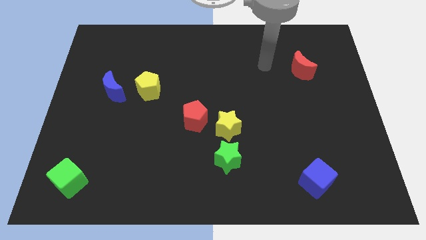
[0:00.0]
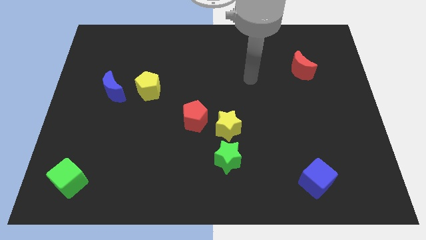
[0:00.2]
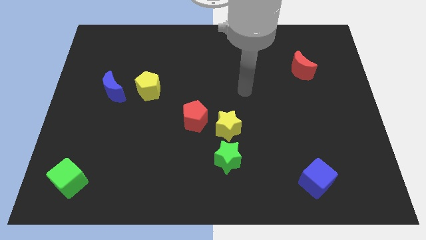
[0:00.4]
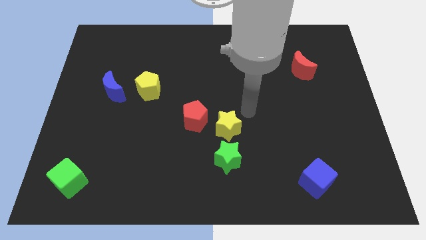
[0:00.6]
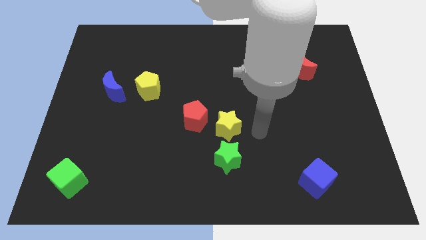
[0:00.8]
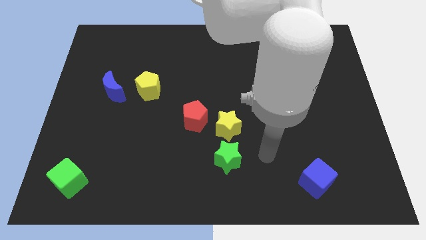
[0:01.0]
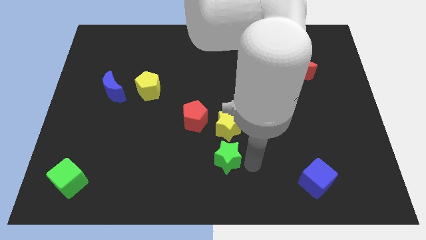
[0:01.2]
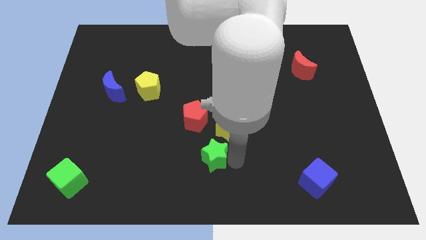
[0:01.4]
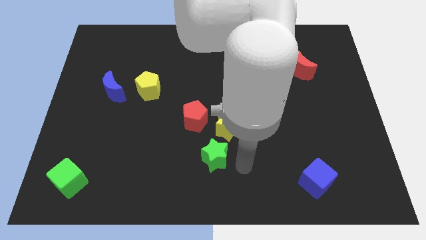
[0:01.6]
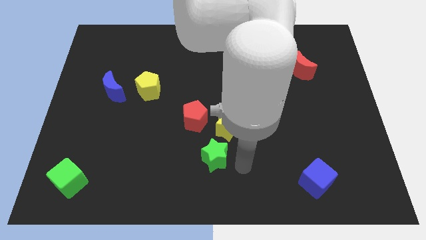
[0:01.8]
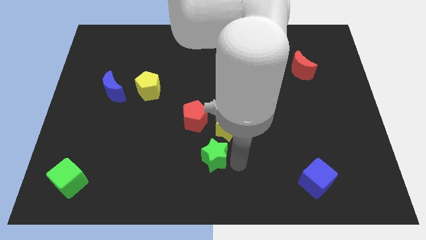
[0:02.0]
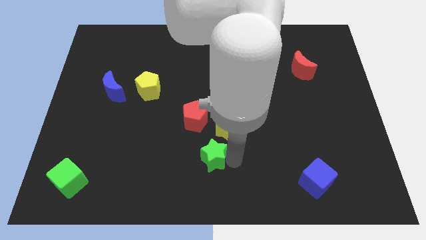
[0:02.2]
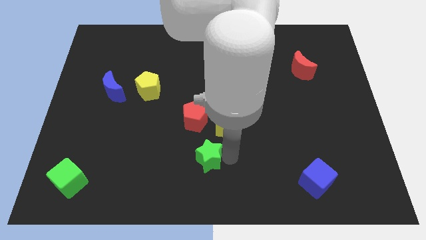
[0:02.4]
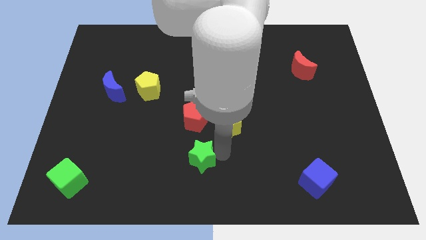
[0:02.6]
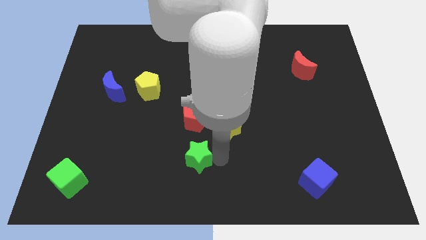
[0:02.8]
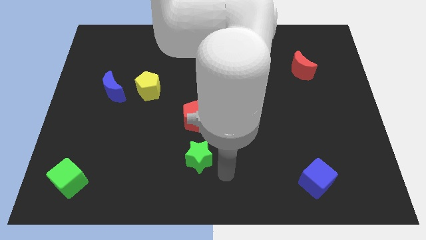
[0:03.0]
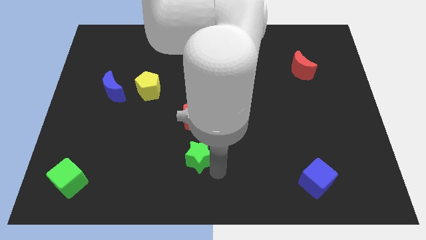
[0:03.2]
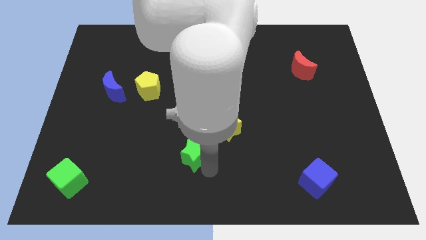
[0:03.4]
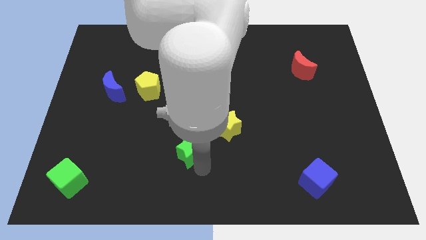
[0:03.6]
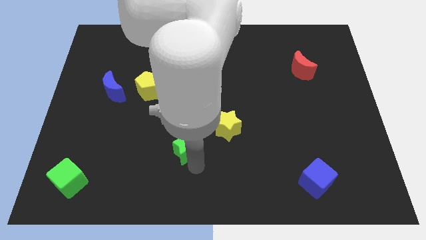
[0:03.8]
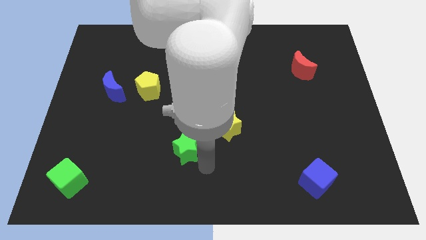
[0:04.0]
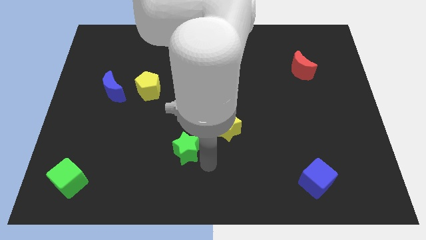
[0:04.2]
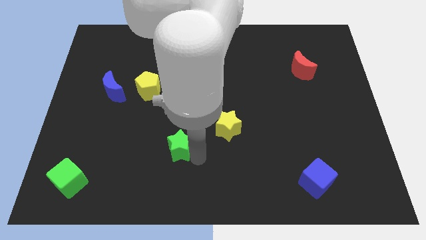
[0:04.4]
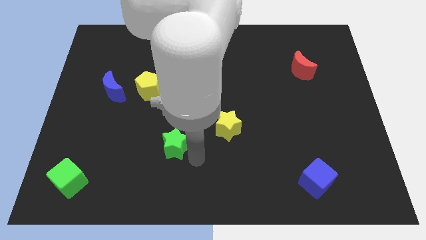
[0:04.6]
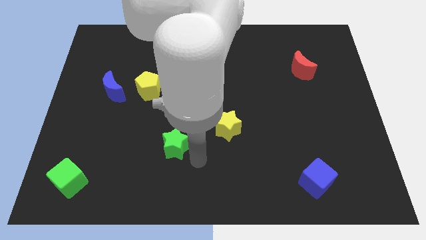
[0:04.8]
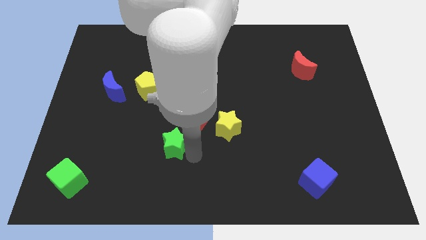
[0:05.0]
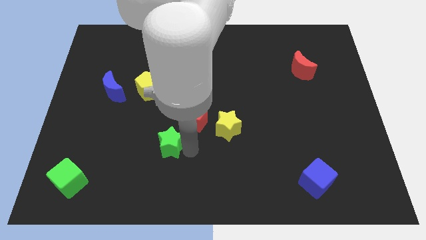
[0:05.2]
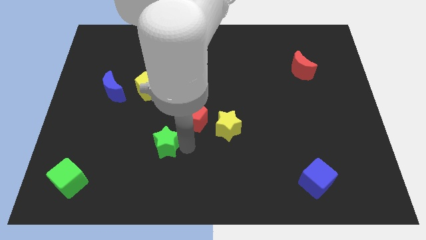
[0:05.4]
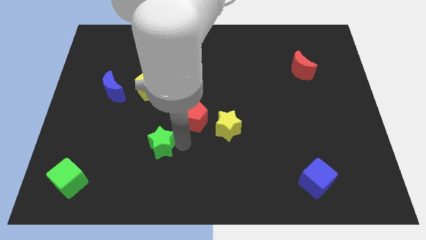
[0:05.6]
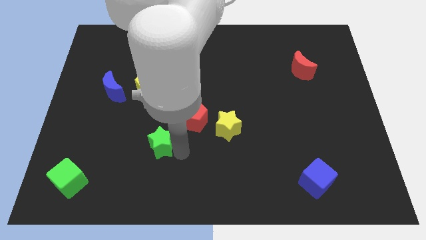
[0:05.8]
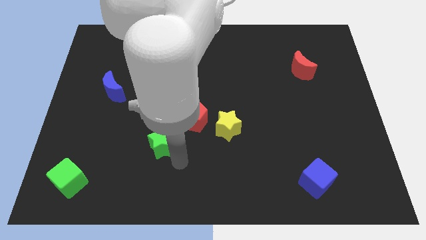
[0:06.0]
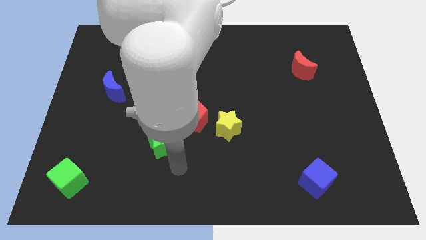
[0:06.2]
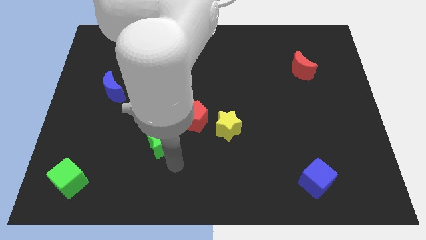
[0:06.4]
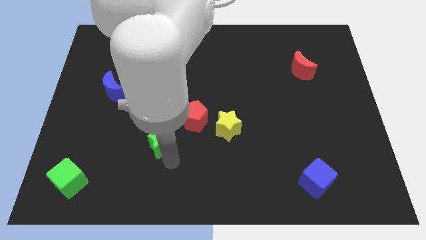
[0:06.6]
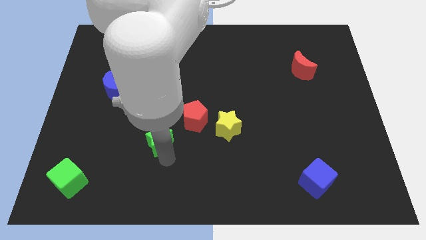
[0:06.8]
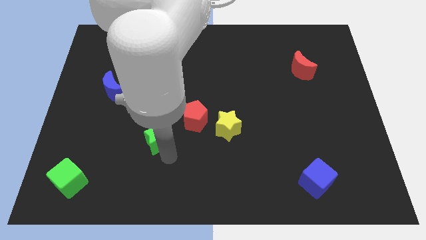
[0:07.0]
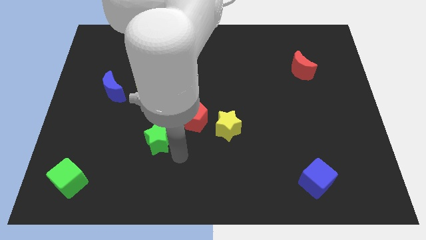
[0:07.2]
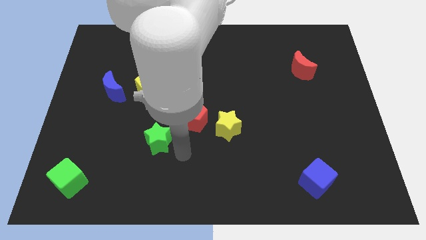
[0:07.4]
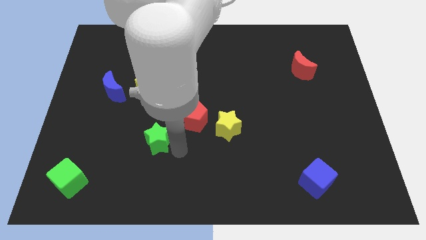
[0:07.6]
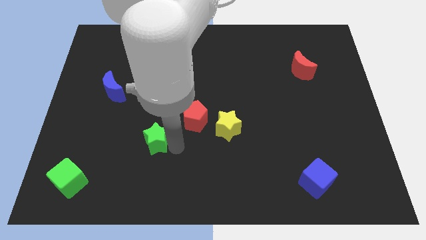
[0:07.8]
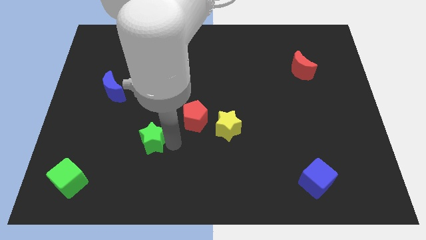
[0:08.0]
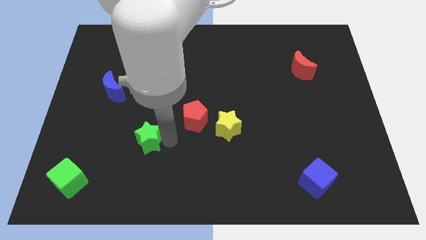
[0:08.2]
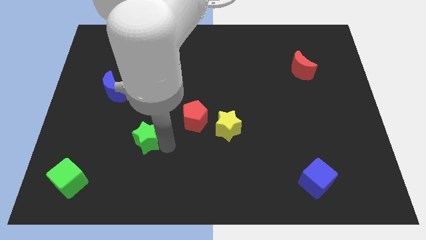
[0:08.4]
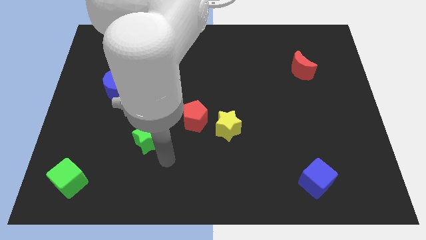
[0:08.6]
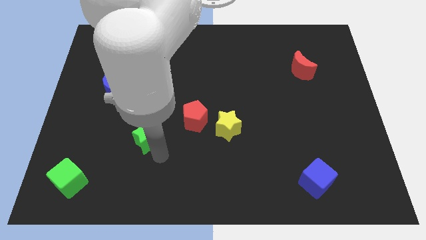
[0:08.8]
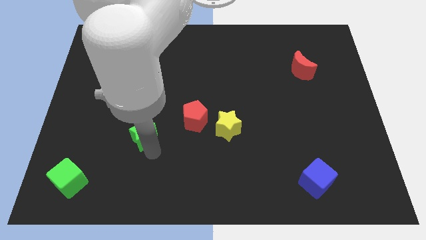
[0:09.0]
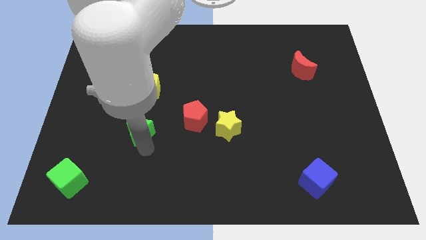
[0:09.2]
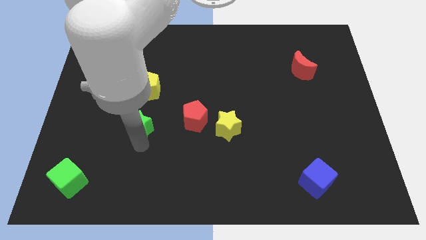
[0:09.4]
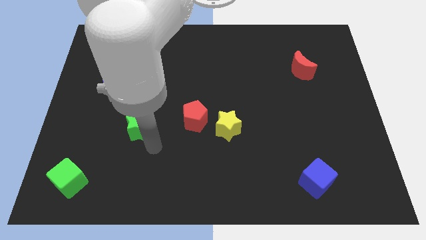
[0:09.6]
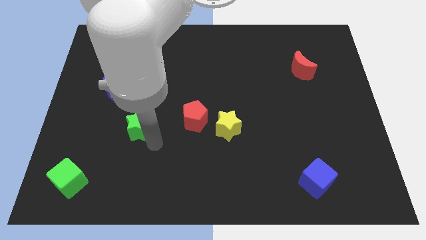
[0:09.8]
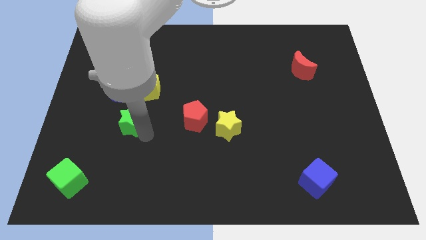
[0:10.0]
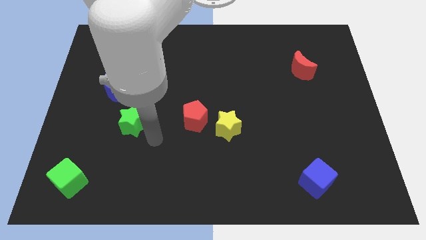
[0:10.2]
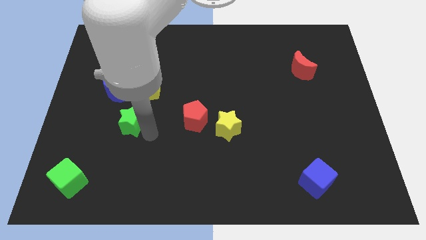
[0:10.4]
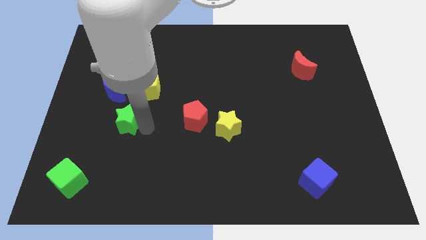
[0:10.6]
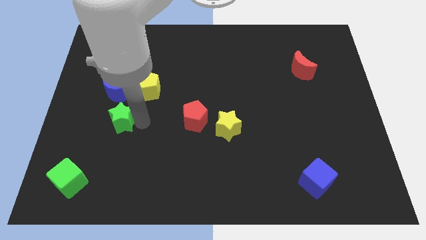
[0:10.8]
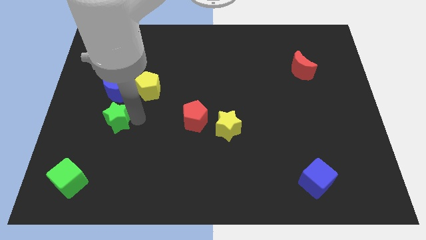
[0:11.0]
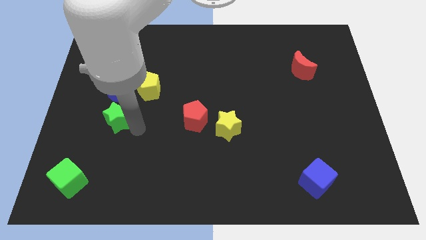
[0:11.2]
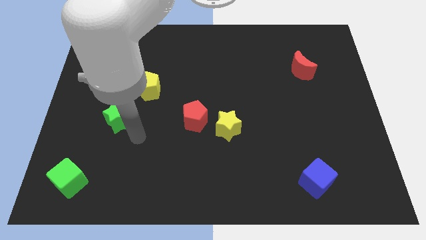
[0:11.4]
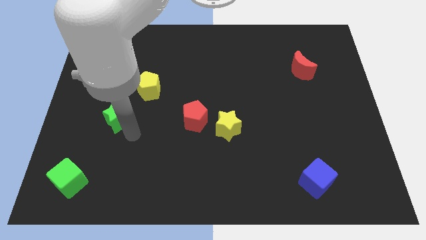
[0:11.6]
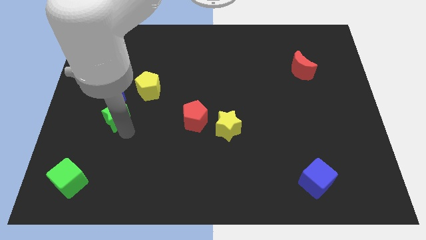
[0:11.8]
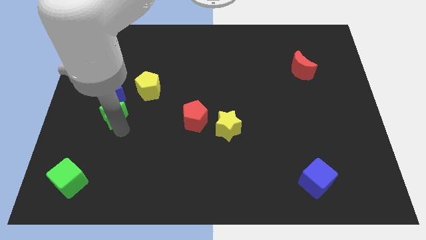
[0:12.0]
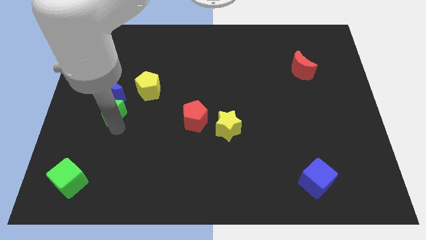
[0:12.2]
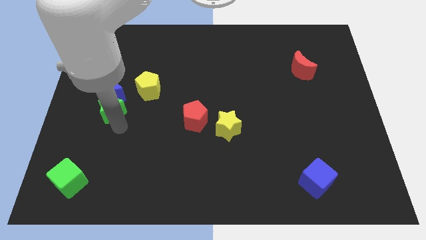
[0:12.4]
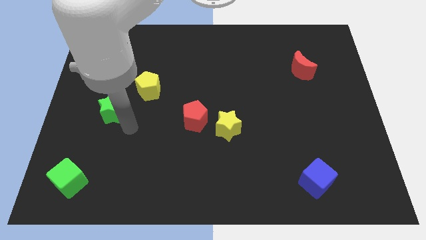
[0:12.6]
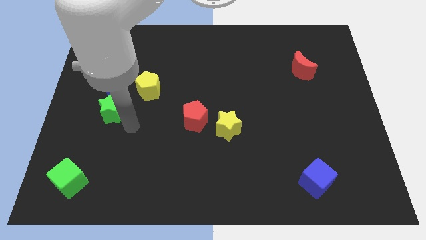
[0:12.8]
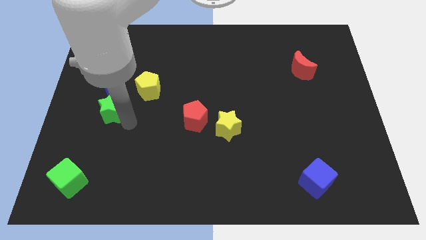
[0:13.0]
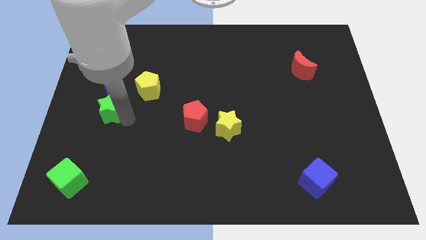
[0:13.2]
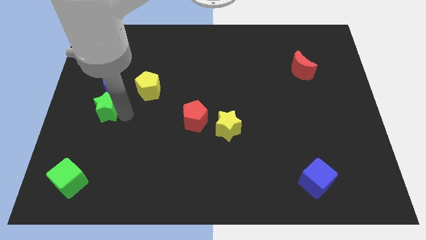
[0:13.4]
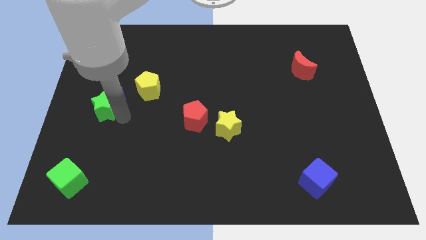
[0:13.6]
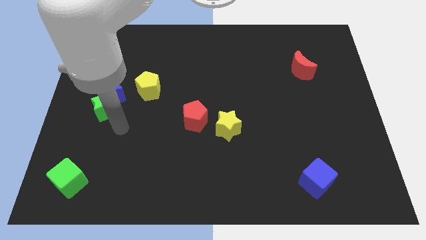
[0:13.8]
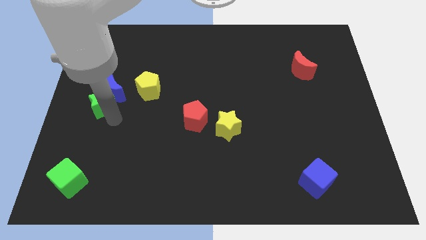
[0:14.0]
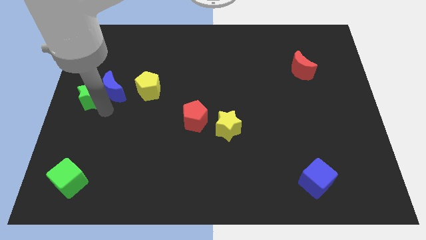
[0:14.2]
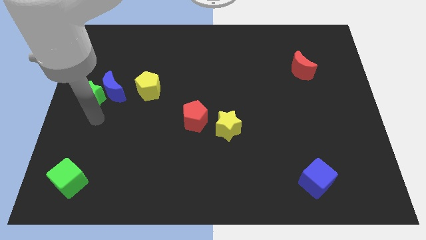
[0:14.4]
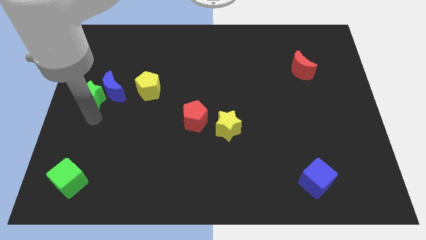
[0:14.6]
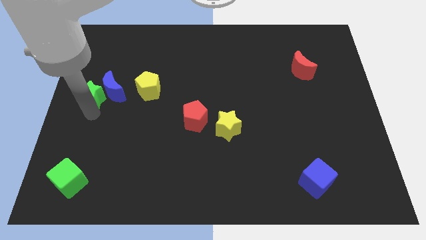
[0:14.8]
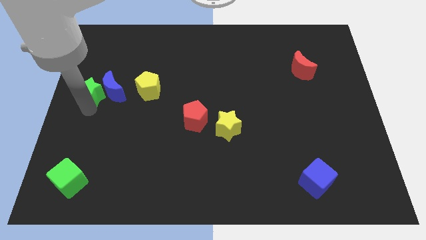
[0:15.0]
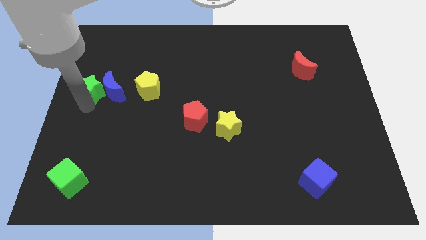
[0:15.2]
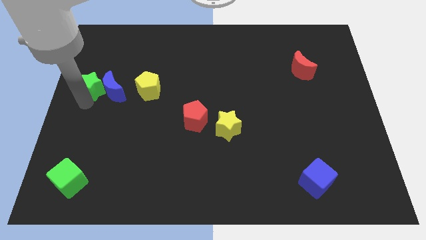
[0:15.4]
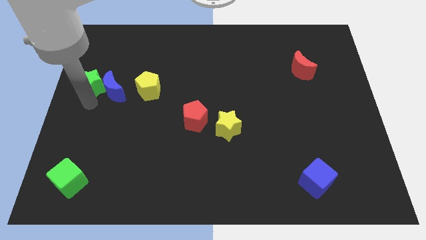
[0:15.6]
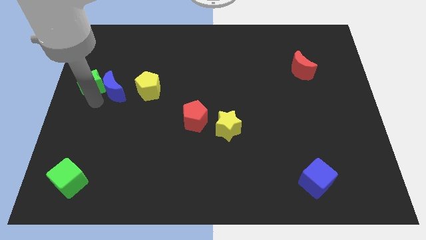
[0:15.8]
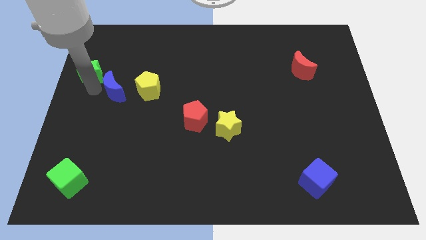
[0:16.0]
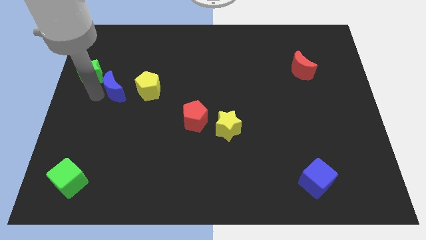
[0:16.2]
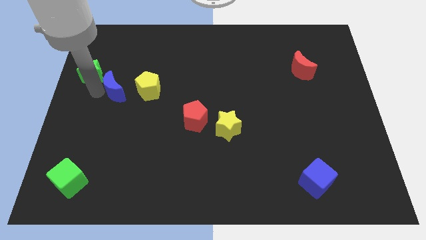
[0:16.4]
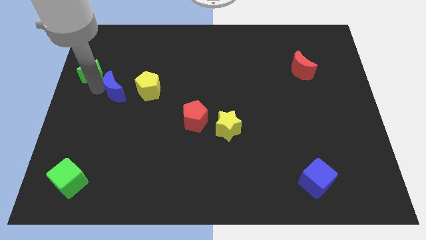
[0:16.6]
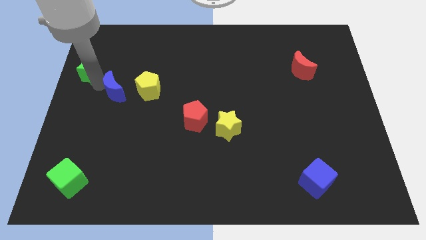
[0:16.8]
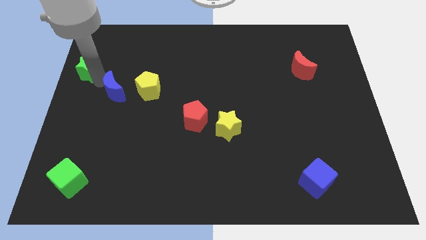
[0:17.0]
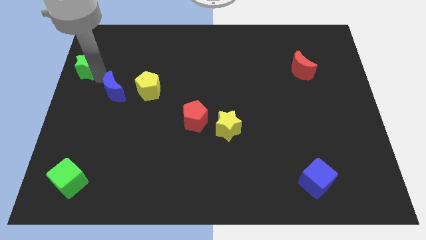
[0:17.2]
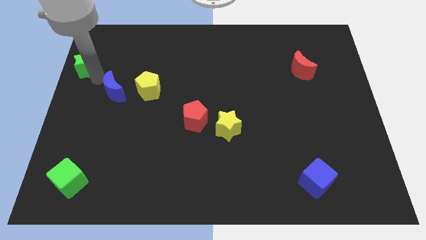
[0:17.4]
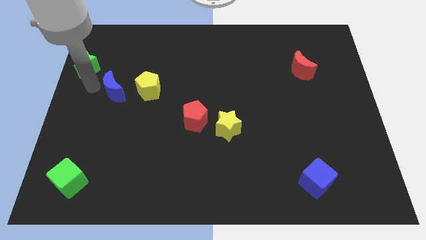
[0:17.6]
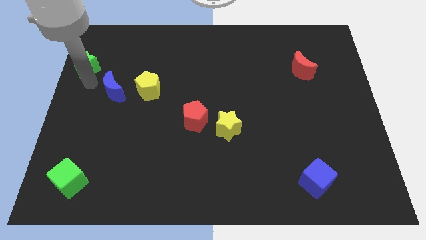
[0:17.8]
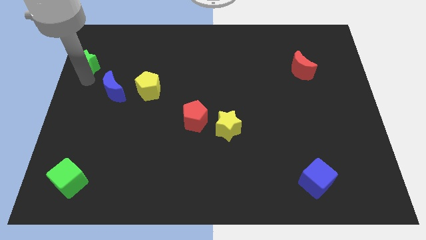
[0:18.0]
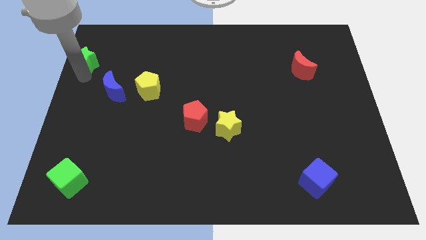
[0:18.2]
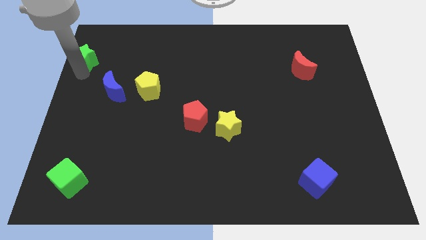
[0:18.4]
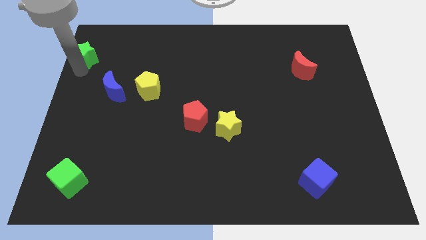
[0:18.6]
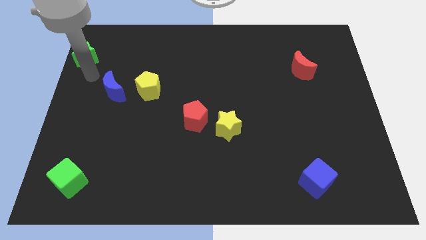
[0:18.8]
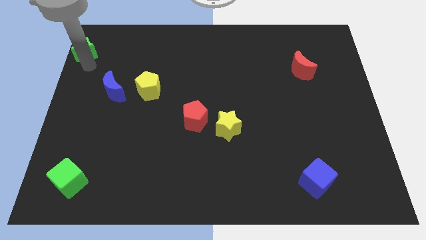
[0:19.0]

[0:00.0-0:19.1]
push the green star to the top left corner
